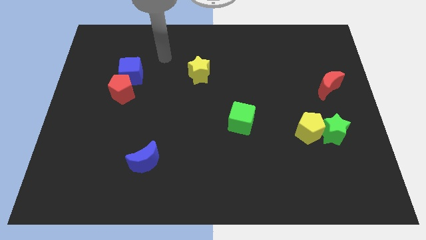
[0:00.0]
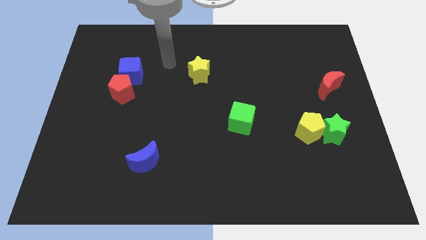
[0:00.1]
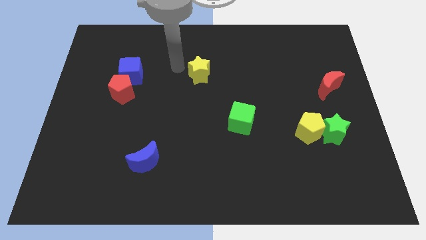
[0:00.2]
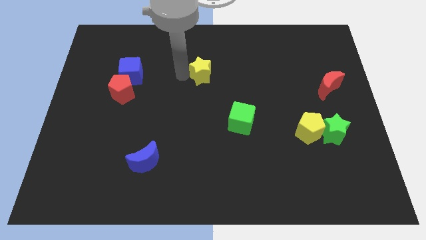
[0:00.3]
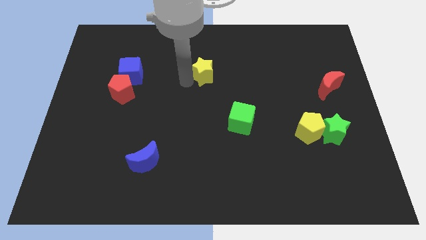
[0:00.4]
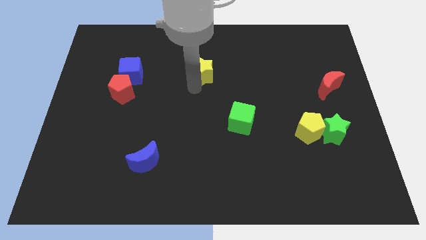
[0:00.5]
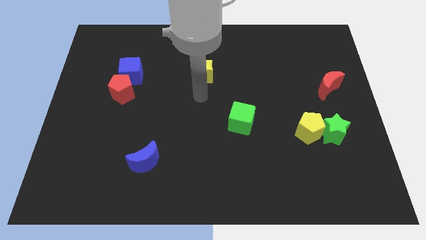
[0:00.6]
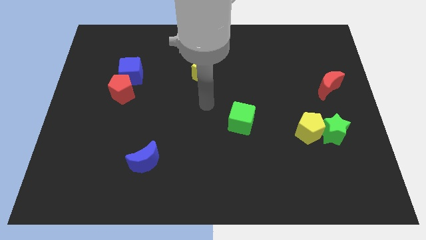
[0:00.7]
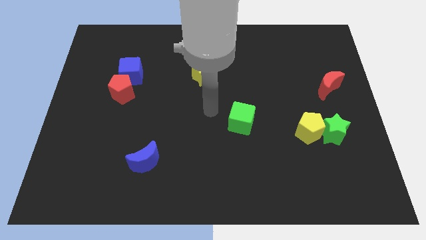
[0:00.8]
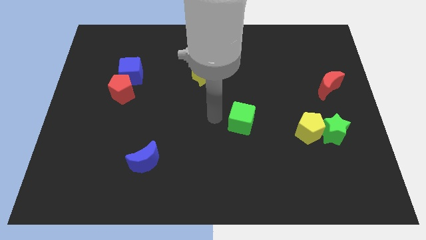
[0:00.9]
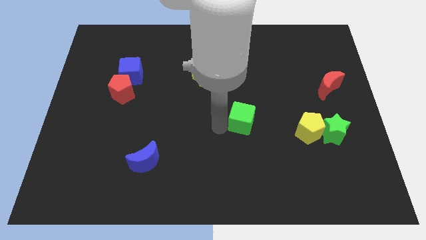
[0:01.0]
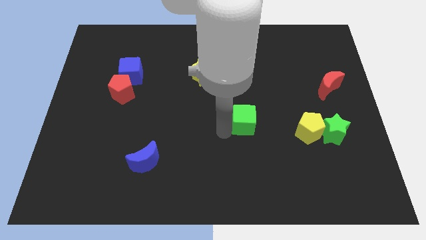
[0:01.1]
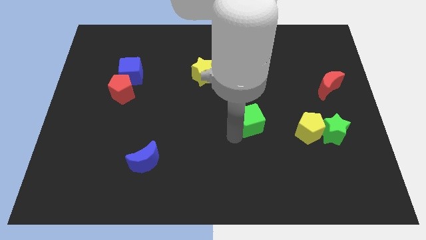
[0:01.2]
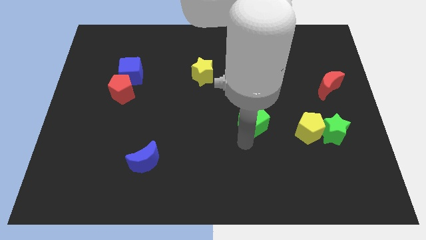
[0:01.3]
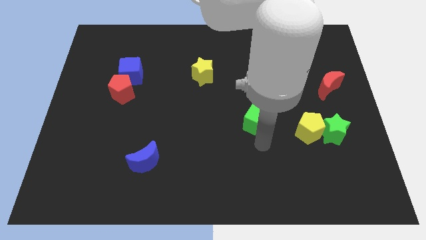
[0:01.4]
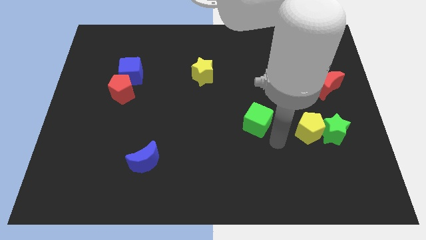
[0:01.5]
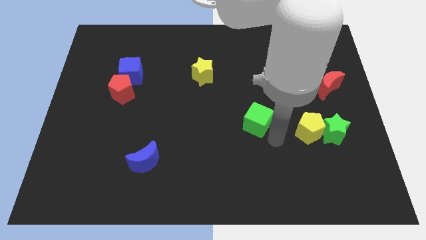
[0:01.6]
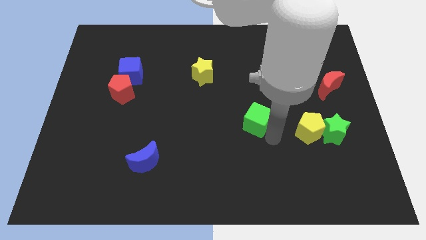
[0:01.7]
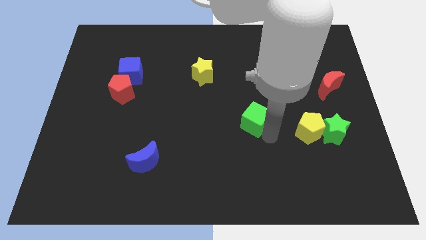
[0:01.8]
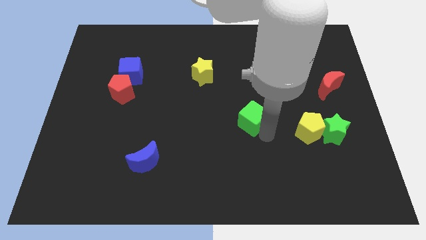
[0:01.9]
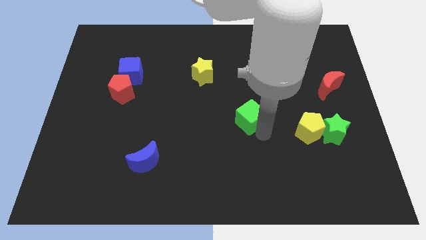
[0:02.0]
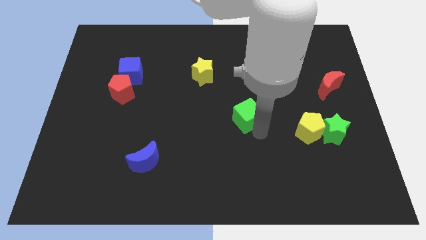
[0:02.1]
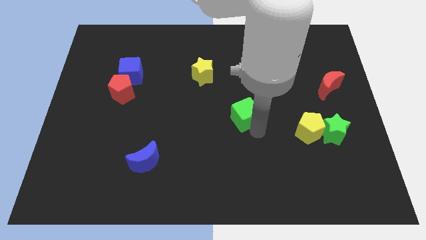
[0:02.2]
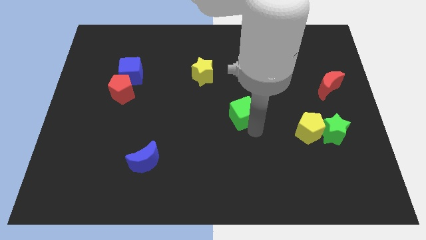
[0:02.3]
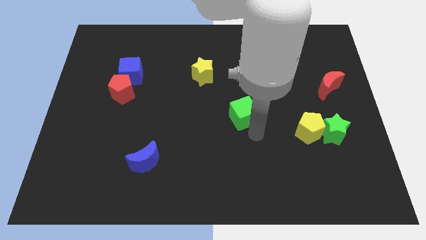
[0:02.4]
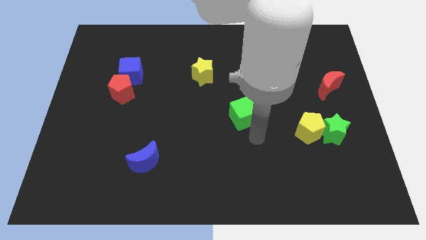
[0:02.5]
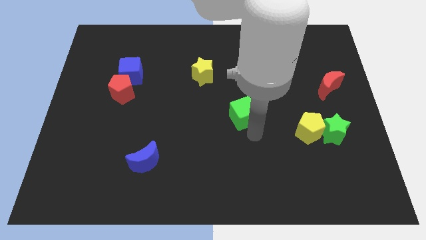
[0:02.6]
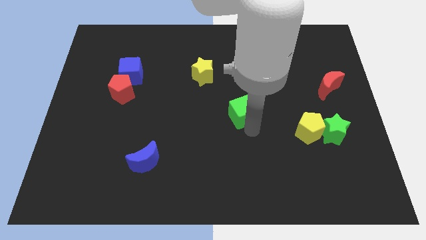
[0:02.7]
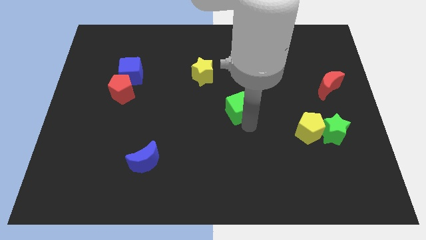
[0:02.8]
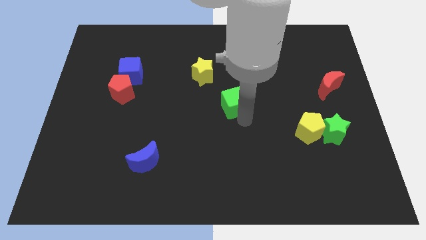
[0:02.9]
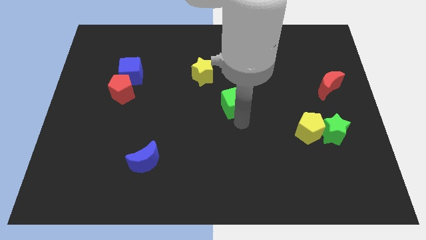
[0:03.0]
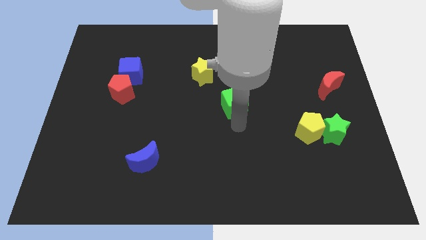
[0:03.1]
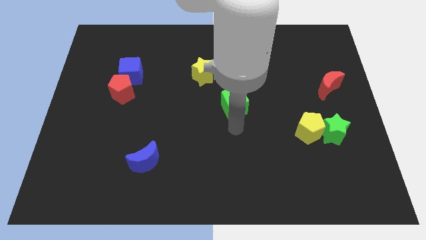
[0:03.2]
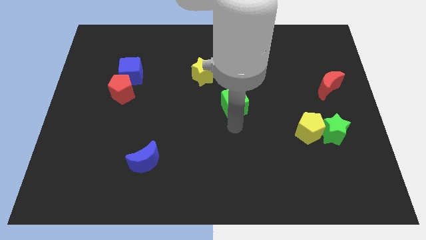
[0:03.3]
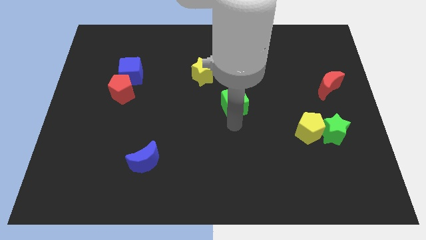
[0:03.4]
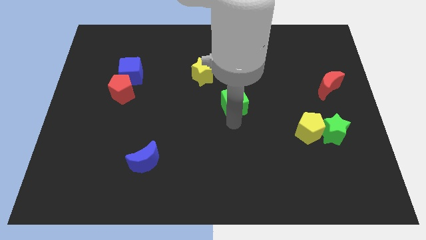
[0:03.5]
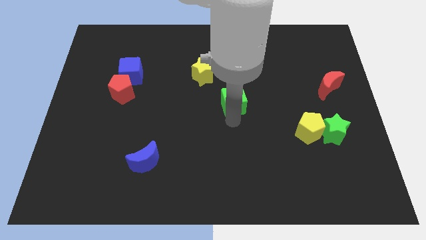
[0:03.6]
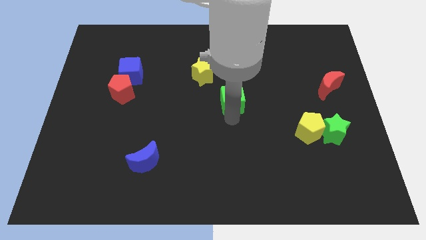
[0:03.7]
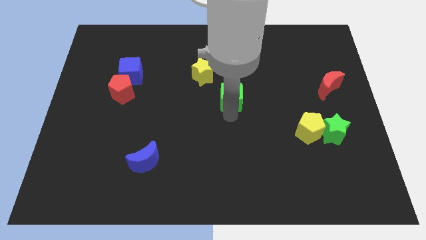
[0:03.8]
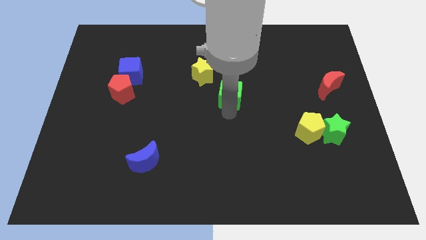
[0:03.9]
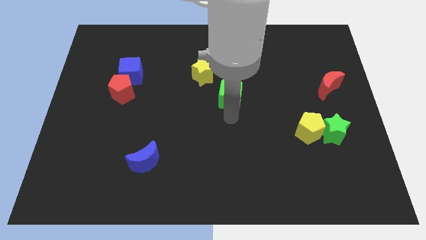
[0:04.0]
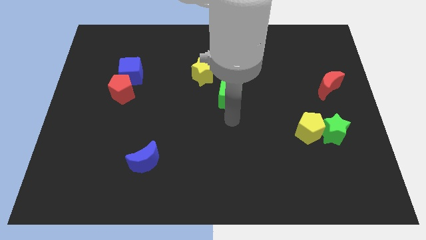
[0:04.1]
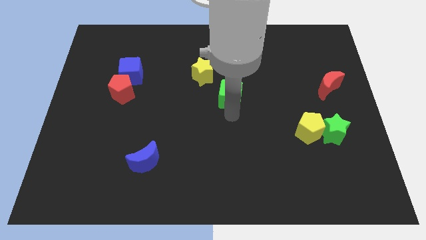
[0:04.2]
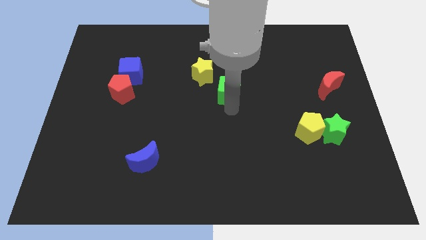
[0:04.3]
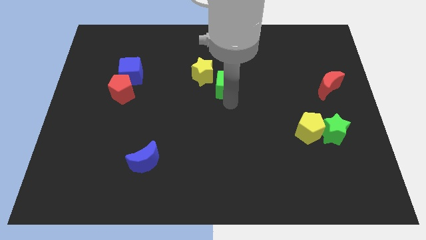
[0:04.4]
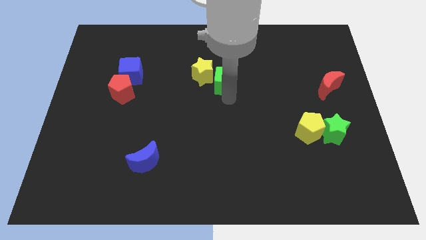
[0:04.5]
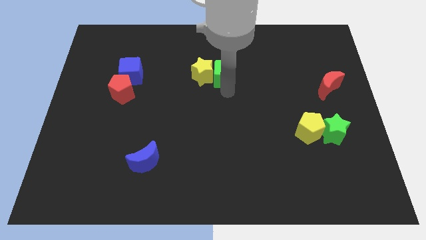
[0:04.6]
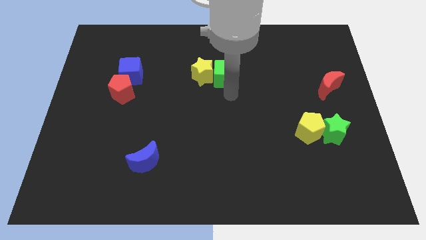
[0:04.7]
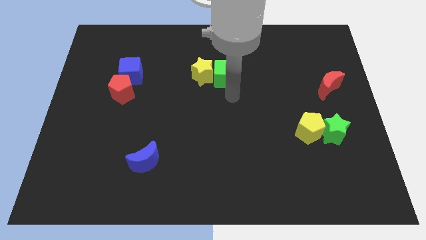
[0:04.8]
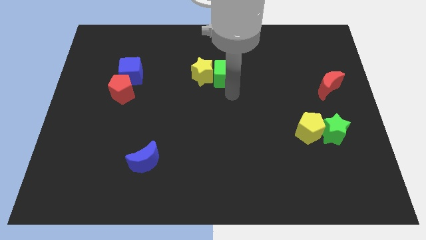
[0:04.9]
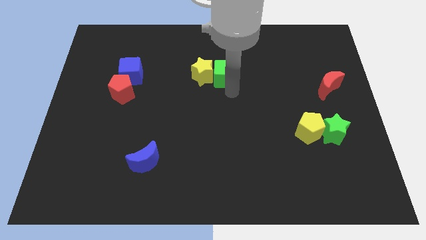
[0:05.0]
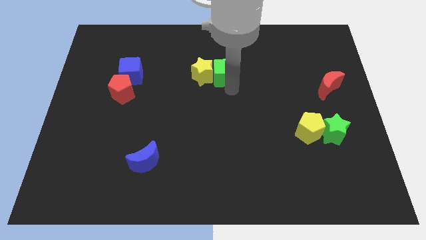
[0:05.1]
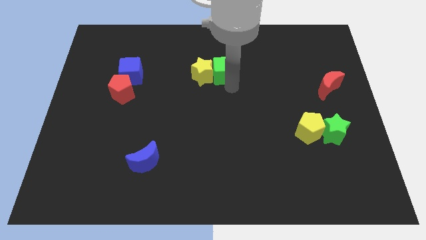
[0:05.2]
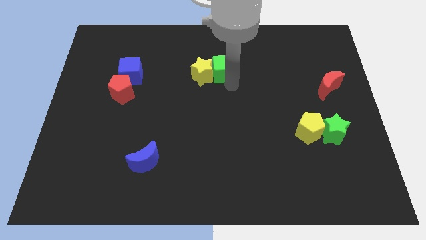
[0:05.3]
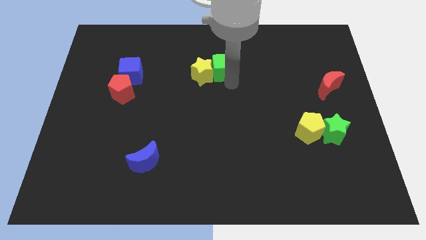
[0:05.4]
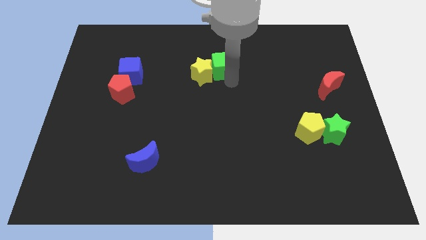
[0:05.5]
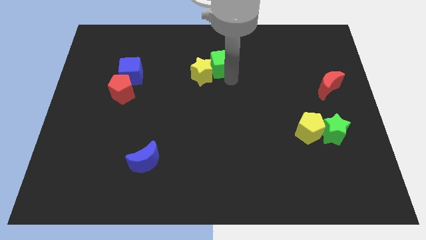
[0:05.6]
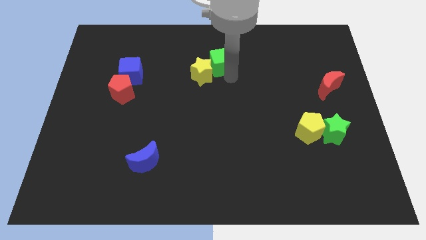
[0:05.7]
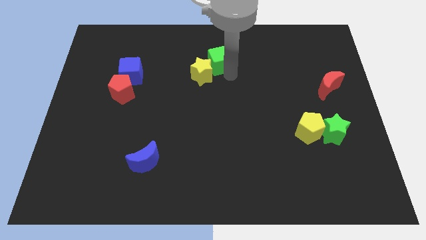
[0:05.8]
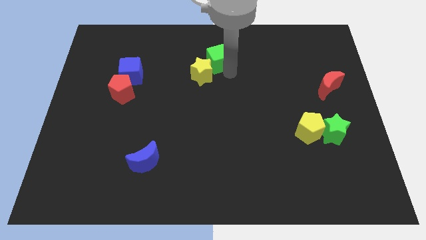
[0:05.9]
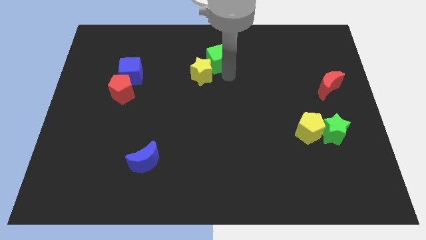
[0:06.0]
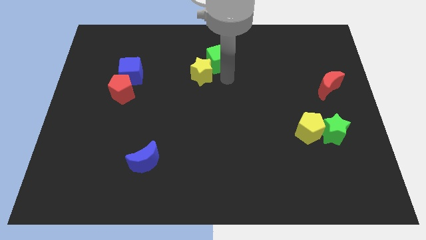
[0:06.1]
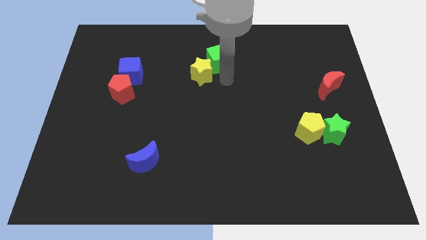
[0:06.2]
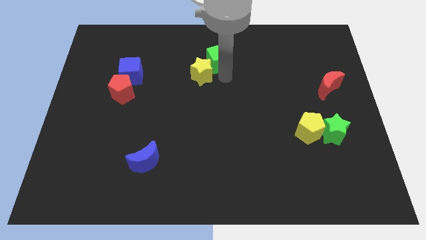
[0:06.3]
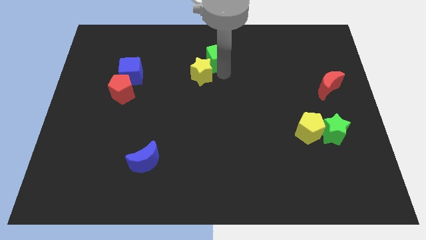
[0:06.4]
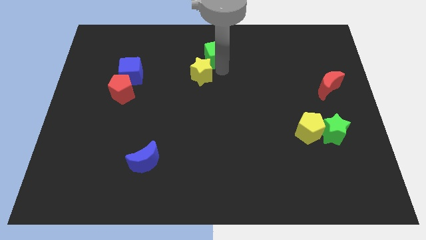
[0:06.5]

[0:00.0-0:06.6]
move the green cube to the towards your base
